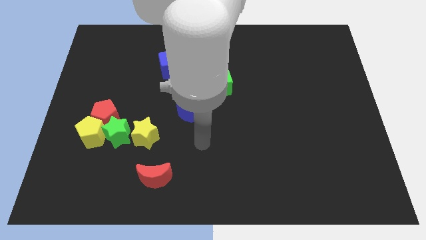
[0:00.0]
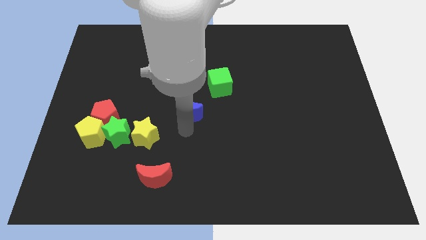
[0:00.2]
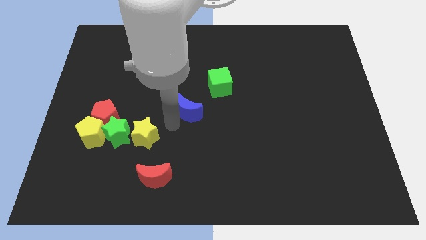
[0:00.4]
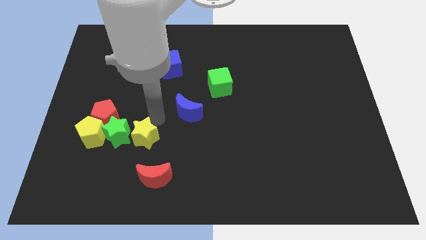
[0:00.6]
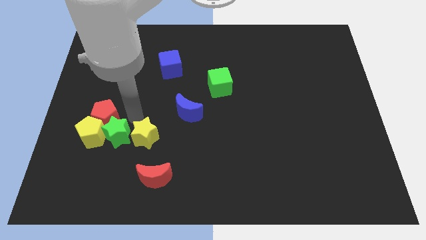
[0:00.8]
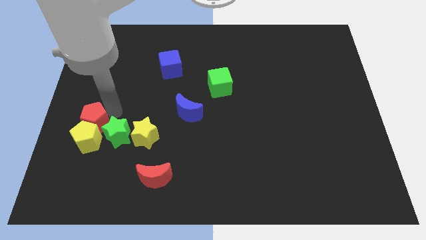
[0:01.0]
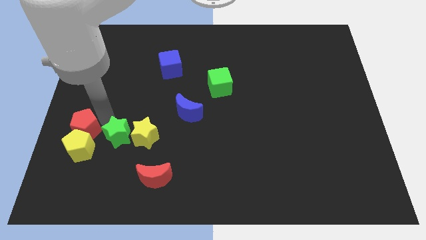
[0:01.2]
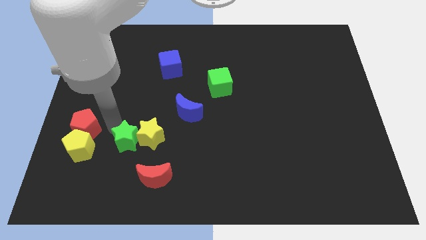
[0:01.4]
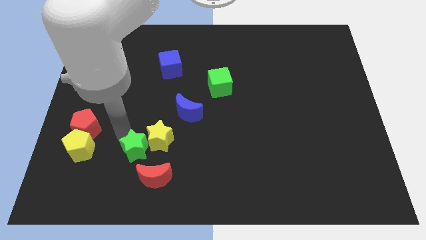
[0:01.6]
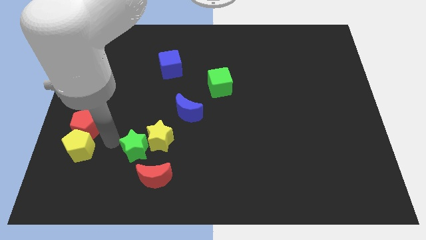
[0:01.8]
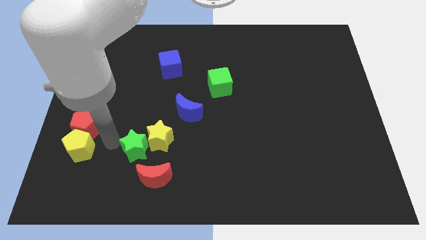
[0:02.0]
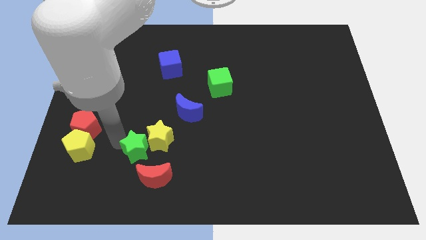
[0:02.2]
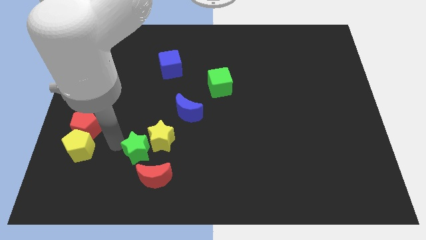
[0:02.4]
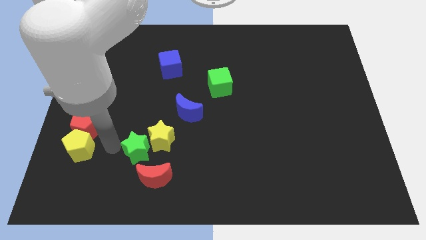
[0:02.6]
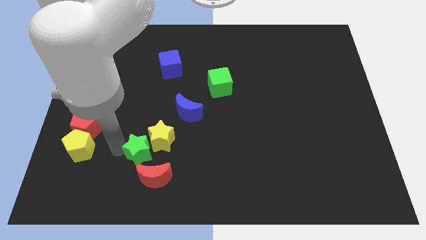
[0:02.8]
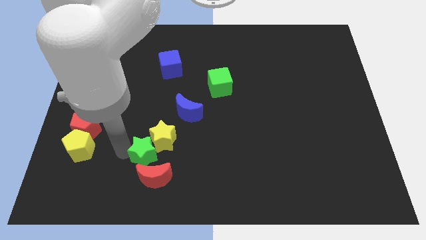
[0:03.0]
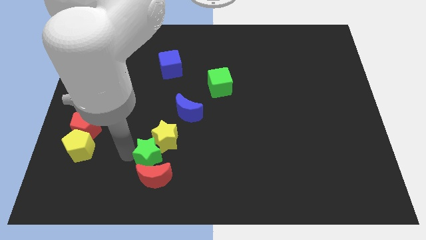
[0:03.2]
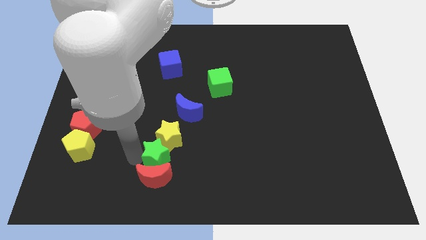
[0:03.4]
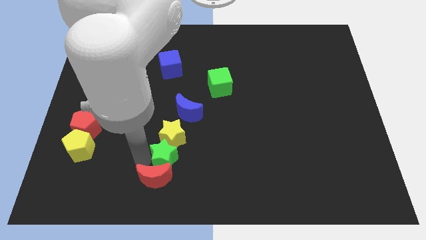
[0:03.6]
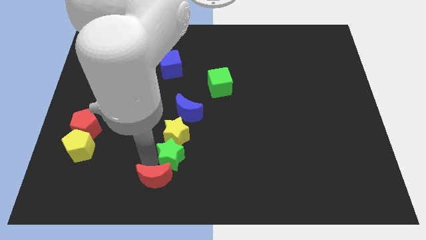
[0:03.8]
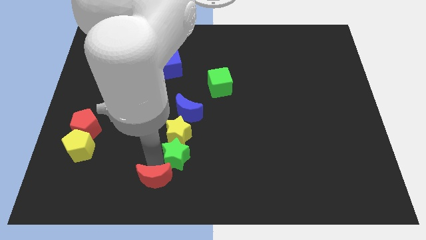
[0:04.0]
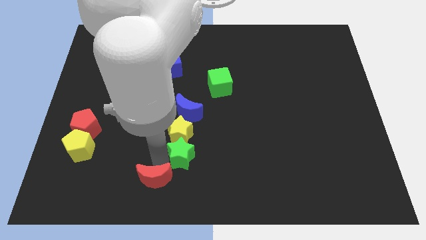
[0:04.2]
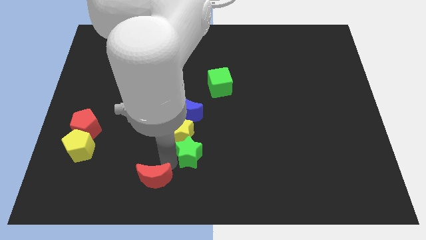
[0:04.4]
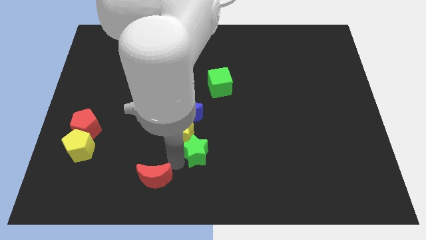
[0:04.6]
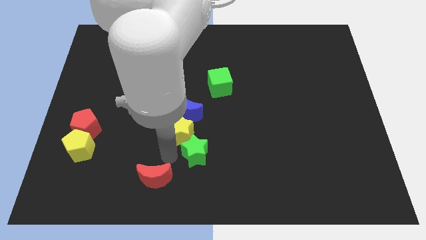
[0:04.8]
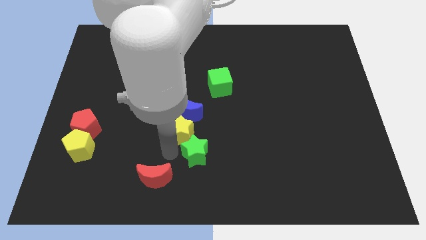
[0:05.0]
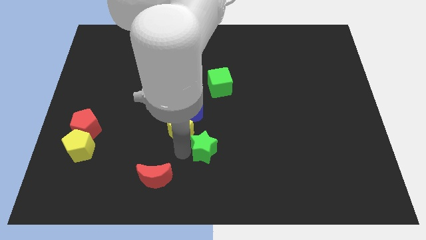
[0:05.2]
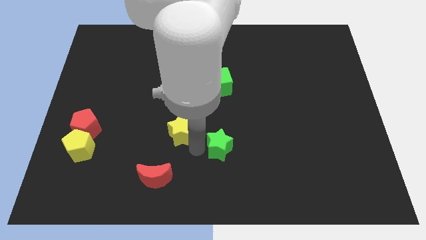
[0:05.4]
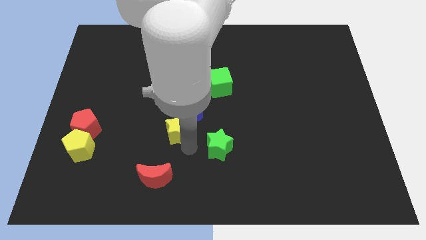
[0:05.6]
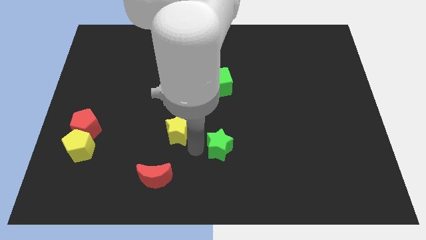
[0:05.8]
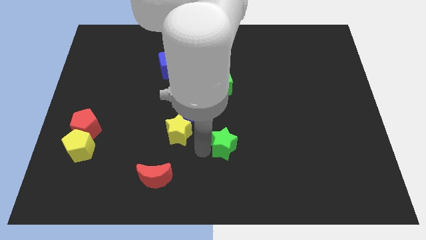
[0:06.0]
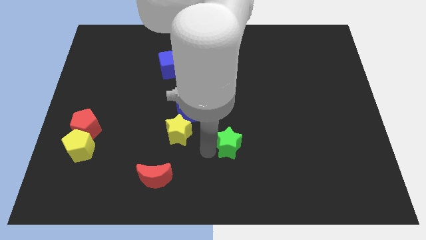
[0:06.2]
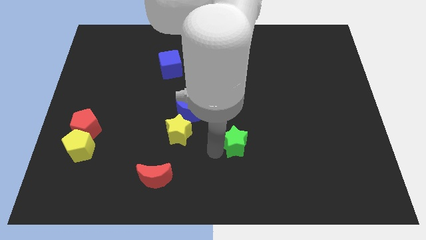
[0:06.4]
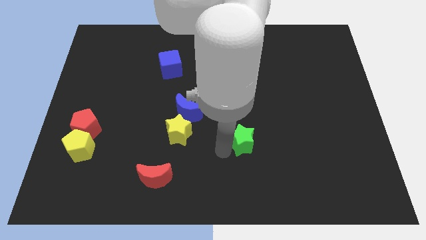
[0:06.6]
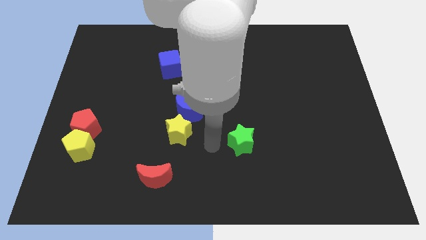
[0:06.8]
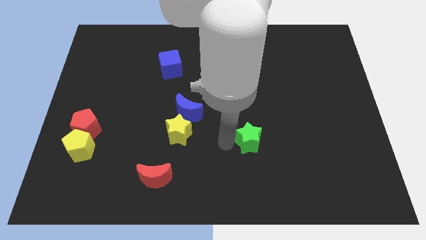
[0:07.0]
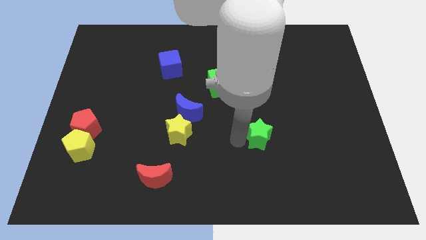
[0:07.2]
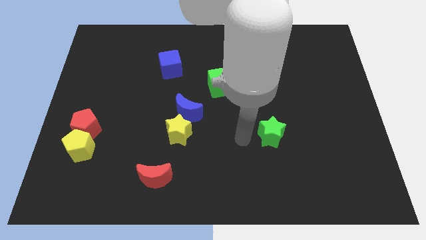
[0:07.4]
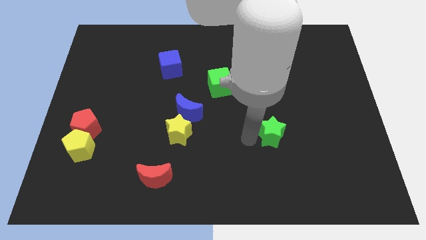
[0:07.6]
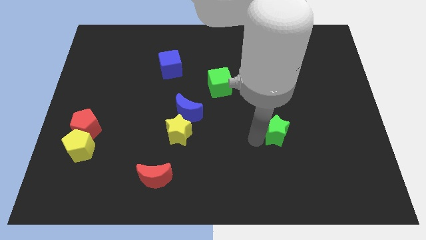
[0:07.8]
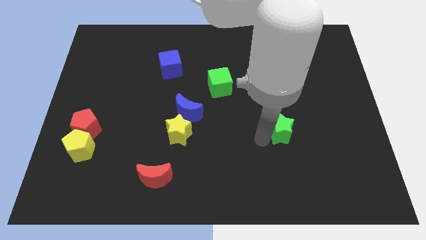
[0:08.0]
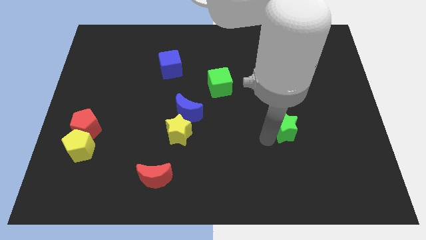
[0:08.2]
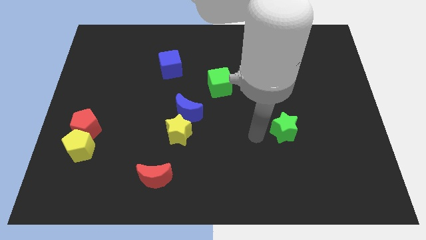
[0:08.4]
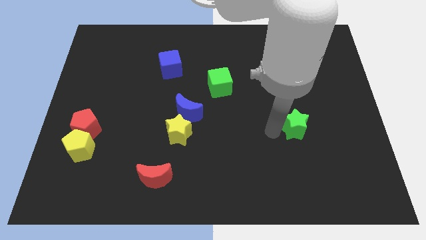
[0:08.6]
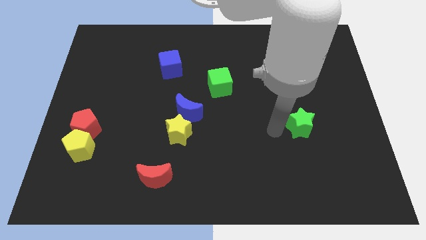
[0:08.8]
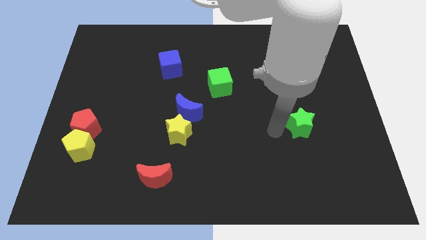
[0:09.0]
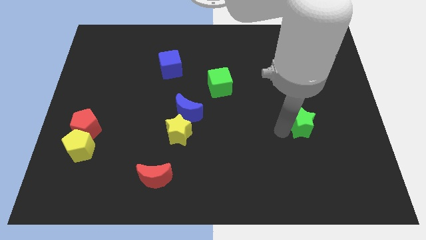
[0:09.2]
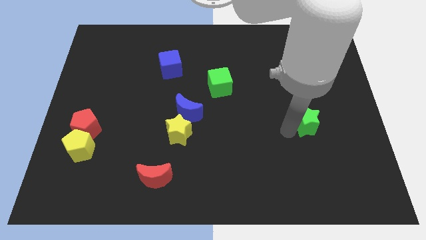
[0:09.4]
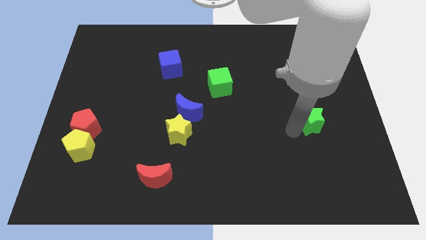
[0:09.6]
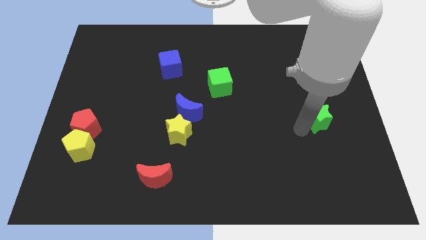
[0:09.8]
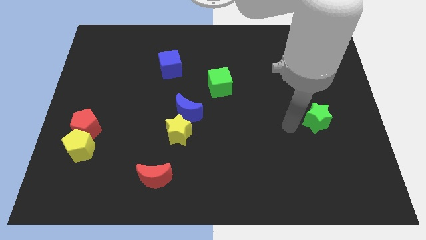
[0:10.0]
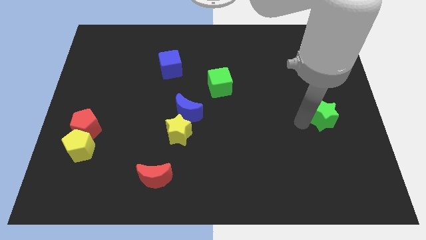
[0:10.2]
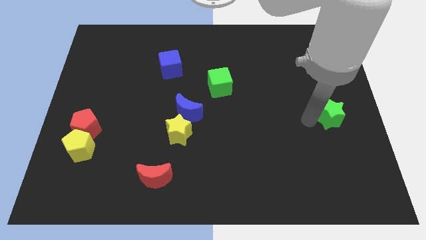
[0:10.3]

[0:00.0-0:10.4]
move the green star to the center right
